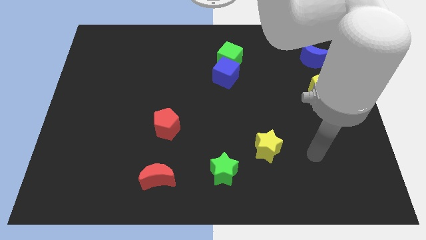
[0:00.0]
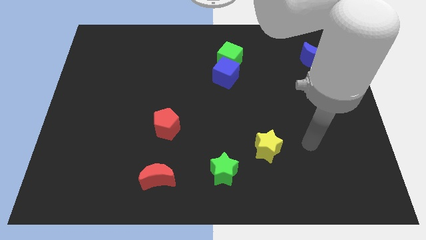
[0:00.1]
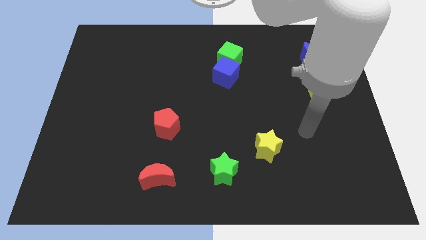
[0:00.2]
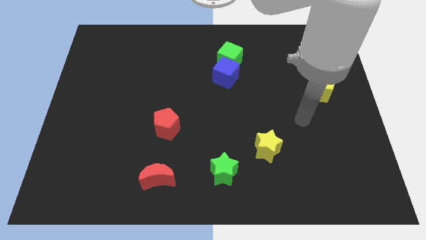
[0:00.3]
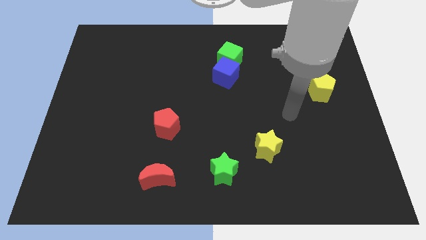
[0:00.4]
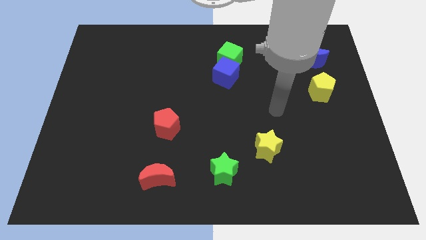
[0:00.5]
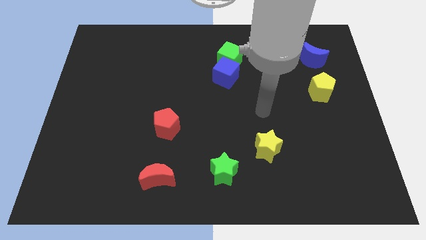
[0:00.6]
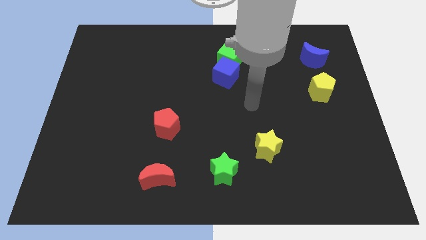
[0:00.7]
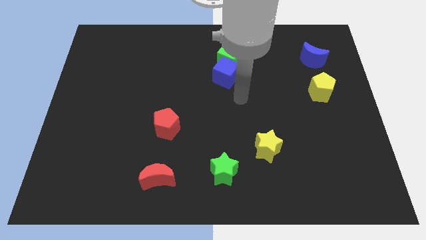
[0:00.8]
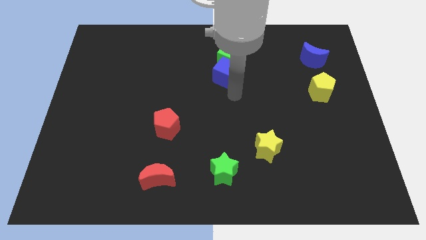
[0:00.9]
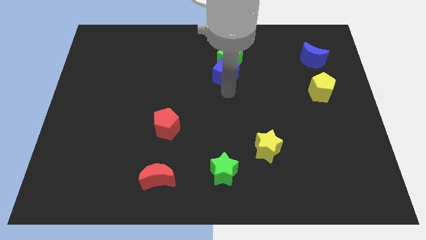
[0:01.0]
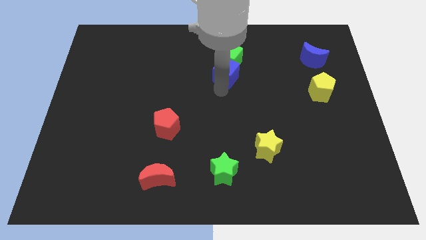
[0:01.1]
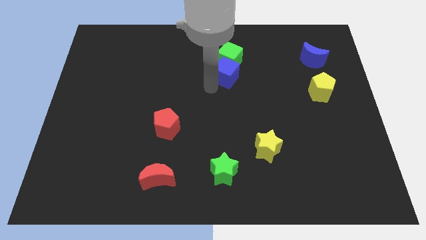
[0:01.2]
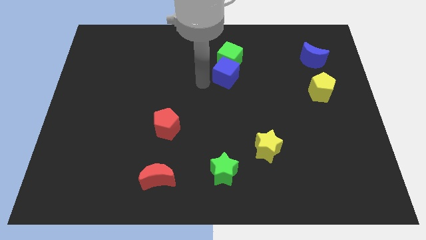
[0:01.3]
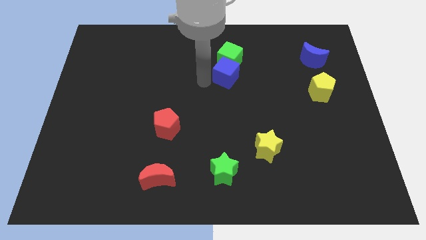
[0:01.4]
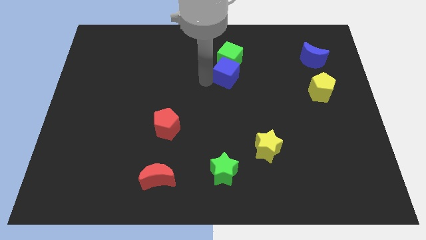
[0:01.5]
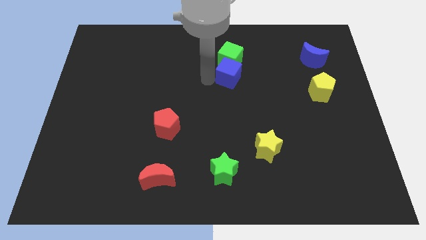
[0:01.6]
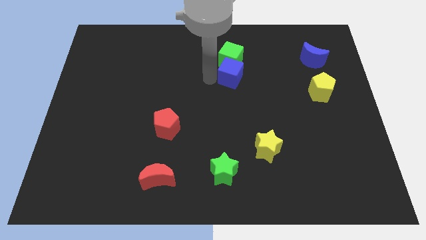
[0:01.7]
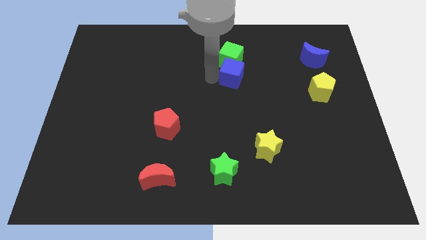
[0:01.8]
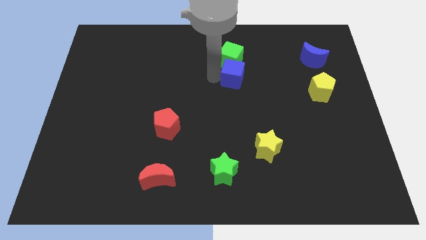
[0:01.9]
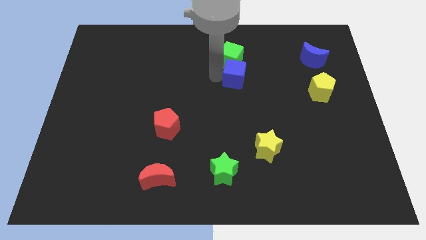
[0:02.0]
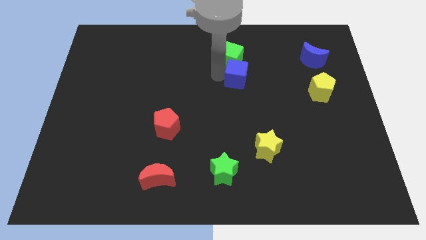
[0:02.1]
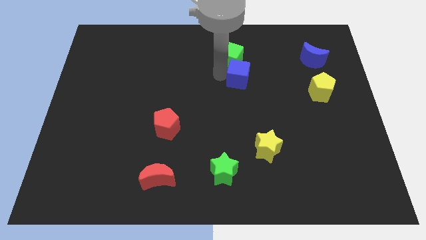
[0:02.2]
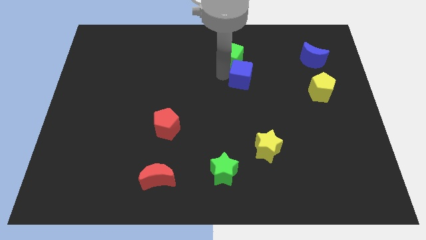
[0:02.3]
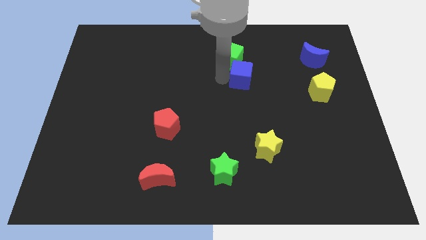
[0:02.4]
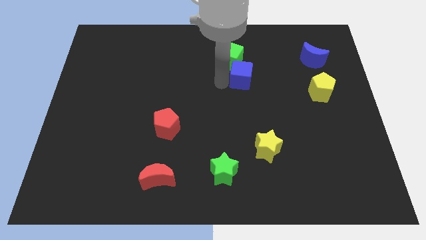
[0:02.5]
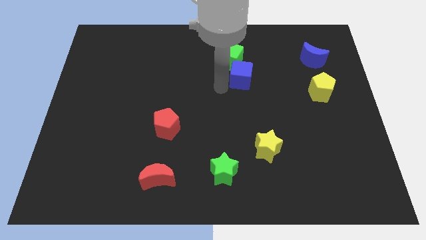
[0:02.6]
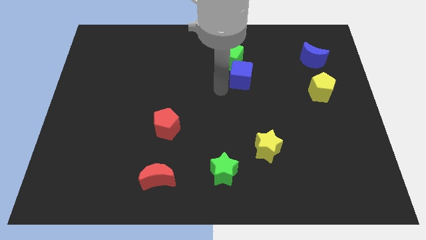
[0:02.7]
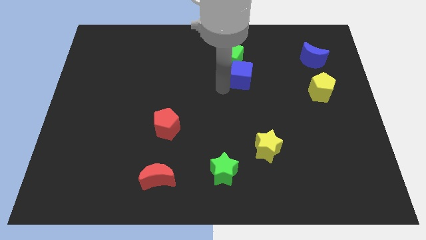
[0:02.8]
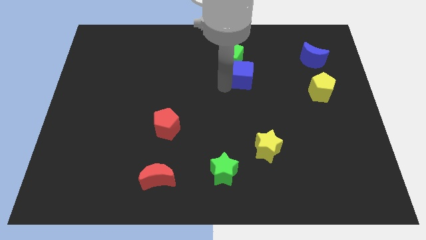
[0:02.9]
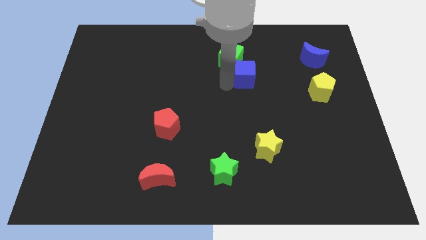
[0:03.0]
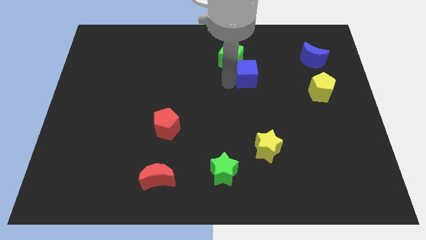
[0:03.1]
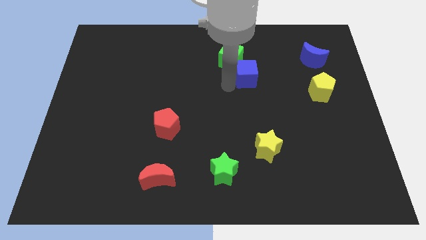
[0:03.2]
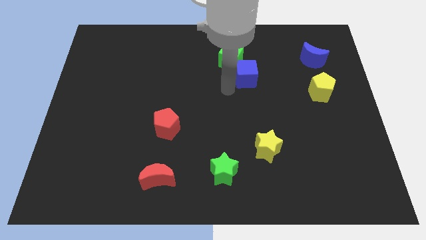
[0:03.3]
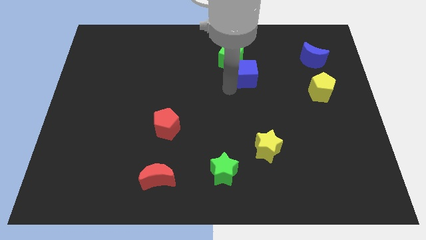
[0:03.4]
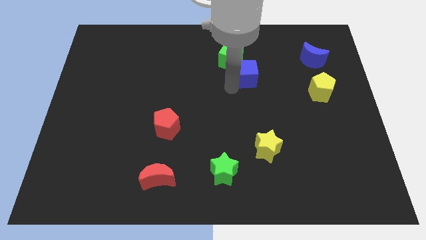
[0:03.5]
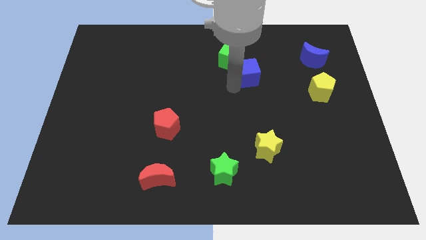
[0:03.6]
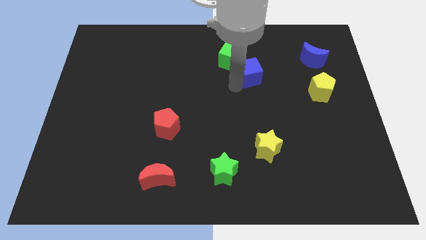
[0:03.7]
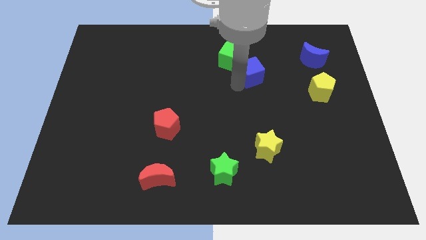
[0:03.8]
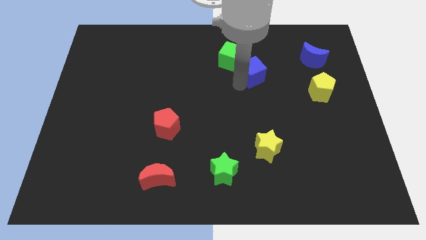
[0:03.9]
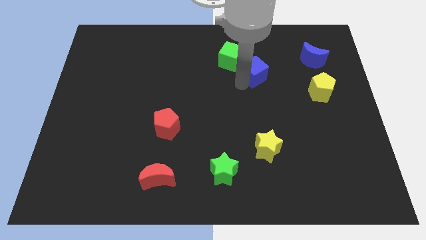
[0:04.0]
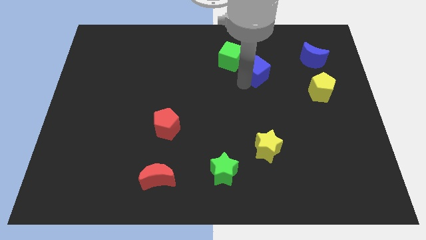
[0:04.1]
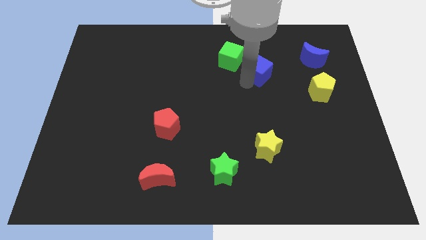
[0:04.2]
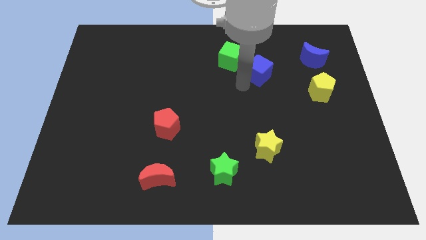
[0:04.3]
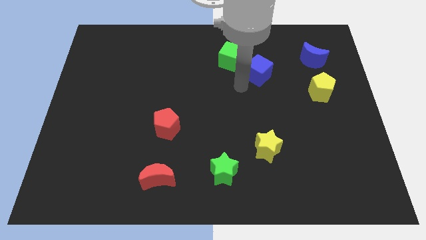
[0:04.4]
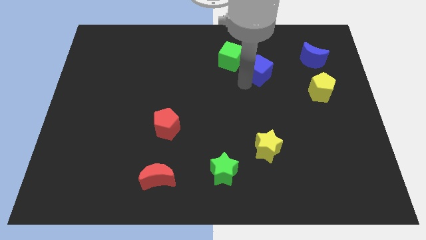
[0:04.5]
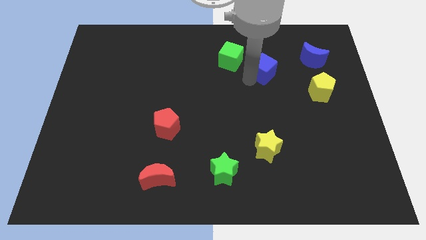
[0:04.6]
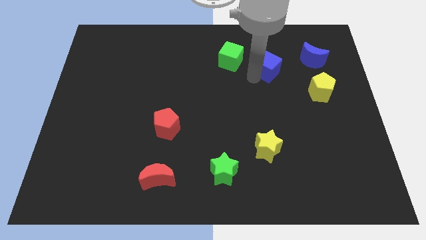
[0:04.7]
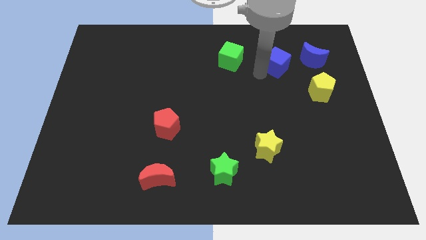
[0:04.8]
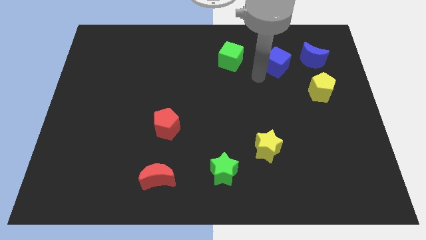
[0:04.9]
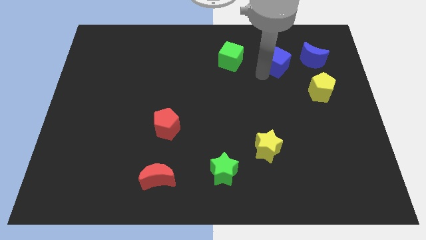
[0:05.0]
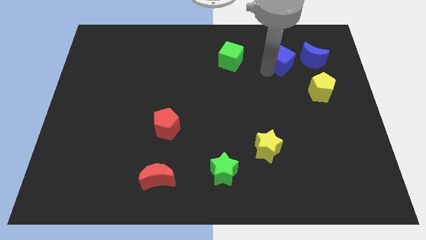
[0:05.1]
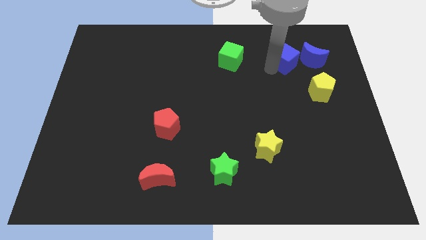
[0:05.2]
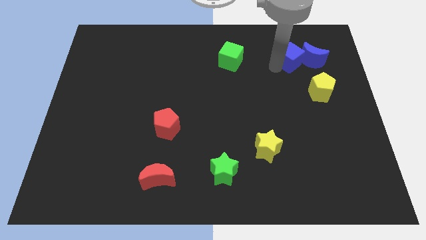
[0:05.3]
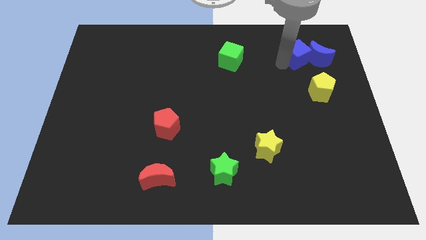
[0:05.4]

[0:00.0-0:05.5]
move the blue cube to the top of the yellow pentagon

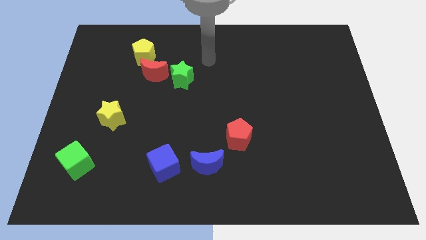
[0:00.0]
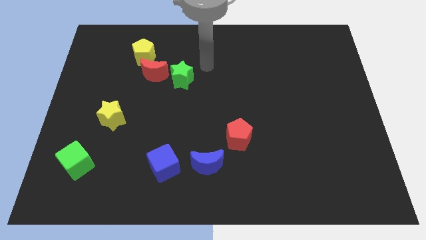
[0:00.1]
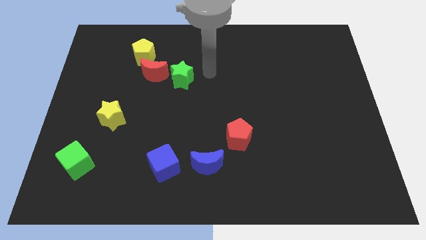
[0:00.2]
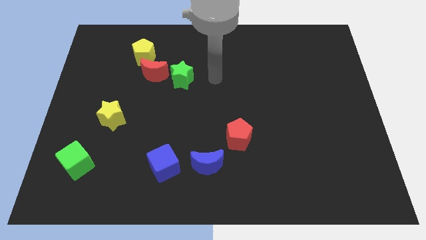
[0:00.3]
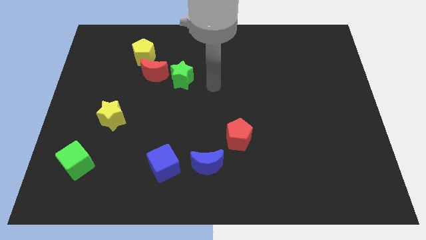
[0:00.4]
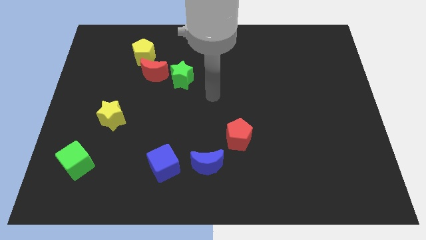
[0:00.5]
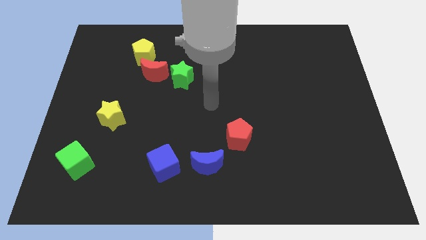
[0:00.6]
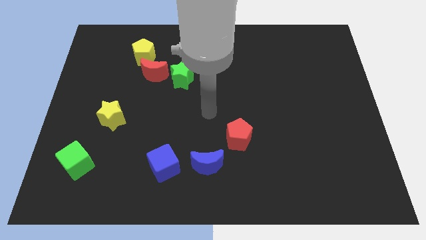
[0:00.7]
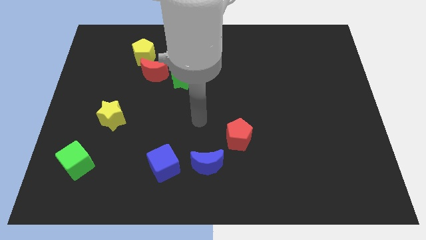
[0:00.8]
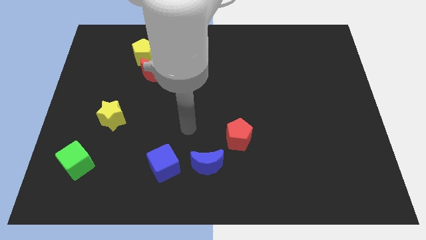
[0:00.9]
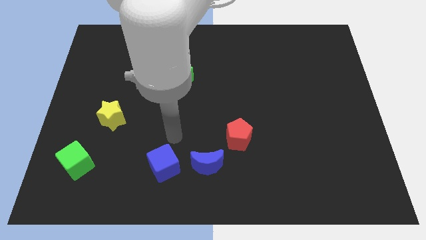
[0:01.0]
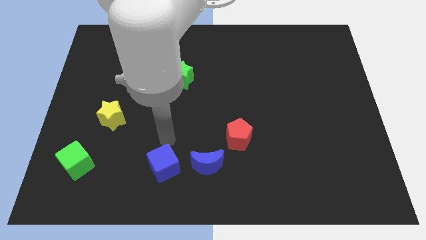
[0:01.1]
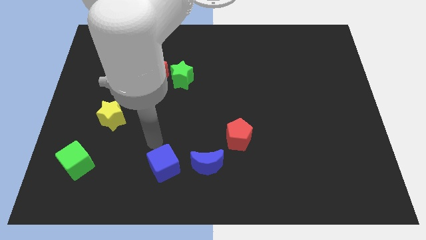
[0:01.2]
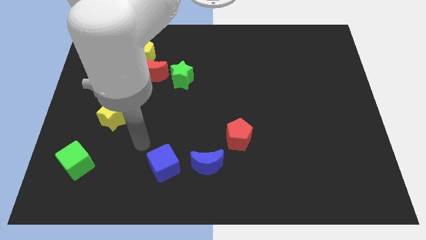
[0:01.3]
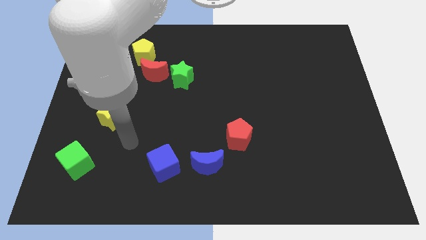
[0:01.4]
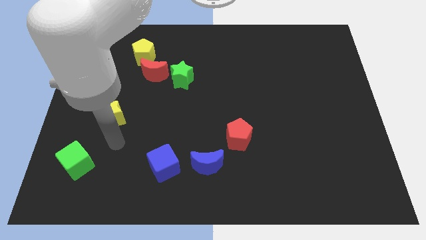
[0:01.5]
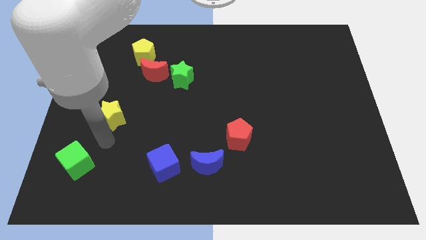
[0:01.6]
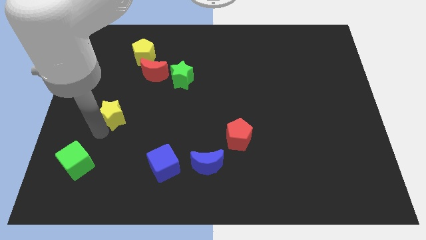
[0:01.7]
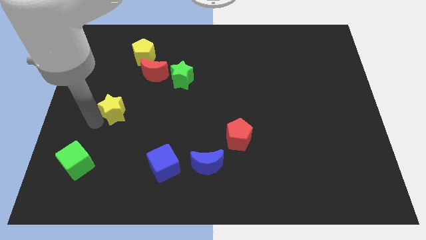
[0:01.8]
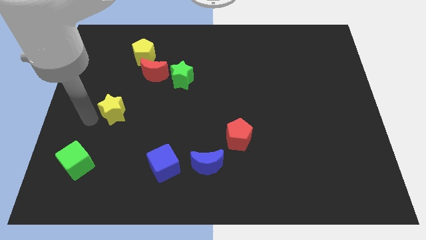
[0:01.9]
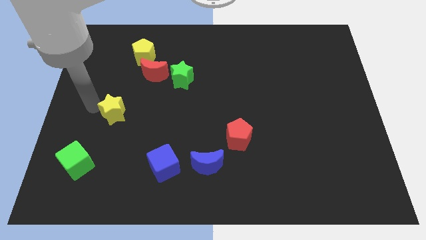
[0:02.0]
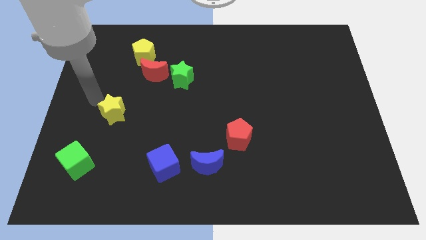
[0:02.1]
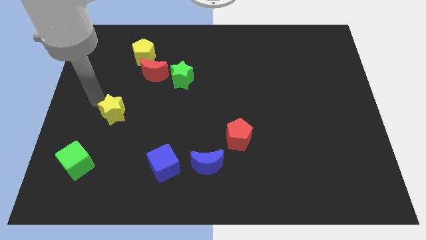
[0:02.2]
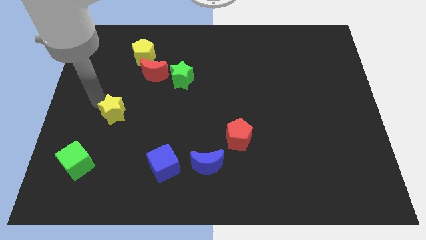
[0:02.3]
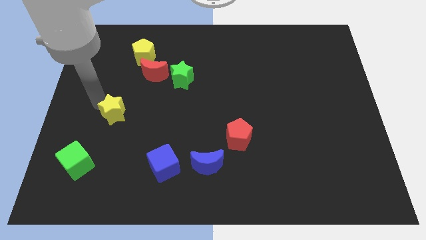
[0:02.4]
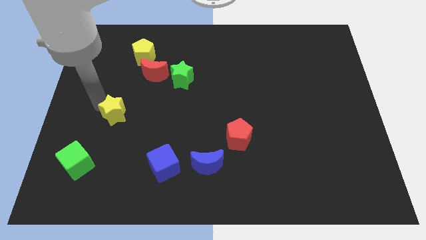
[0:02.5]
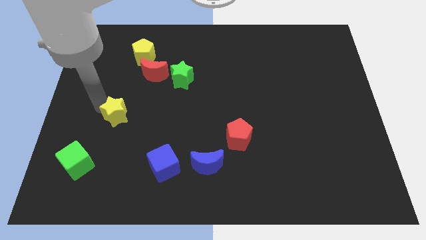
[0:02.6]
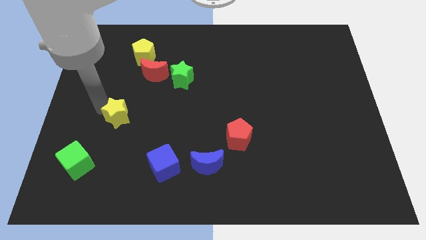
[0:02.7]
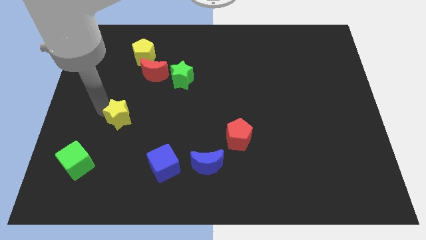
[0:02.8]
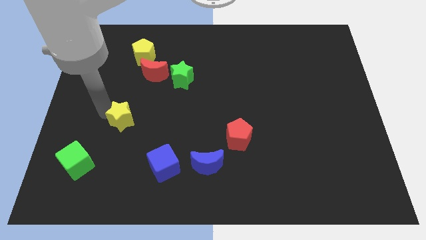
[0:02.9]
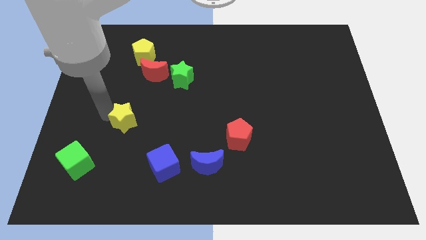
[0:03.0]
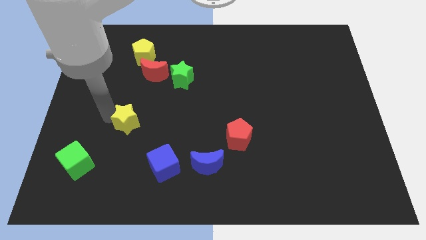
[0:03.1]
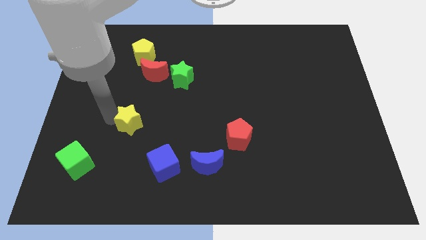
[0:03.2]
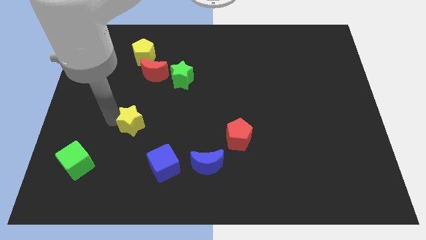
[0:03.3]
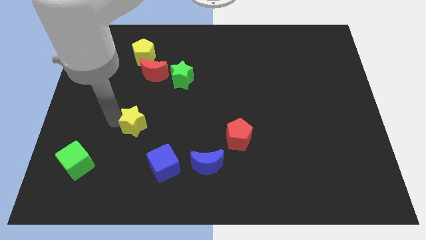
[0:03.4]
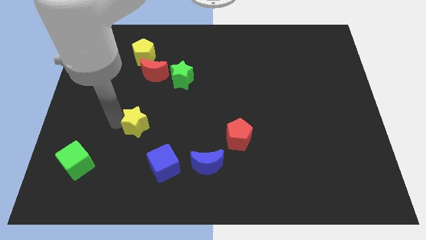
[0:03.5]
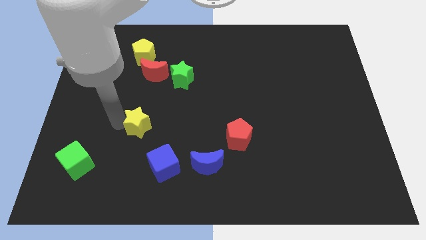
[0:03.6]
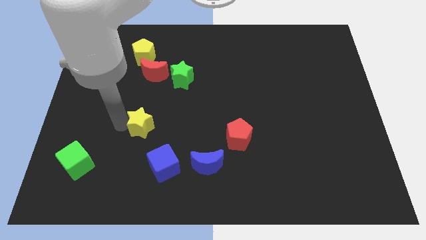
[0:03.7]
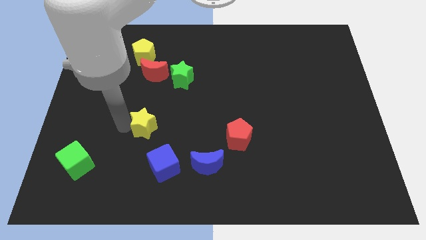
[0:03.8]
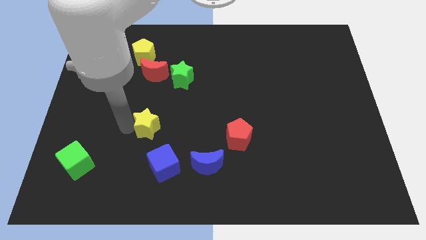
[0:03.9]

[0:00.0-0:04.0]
put the yellow star to the top of the blue cube
